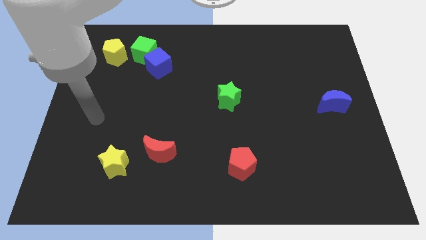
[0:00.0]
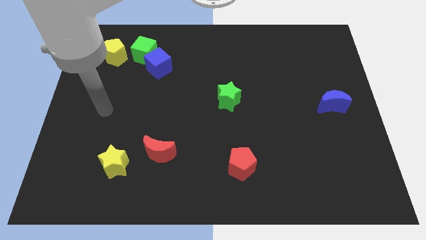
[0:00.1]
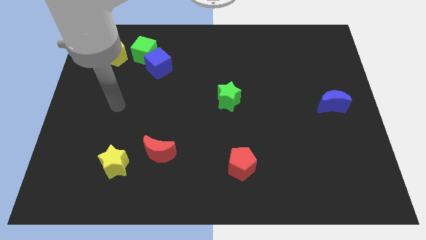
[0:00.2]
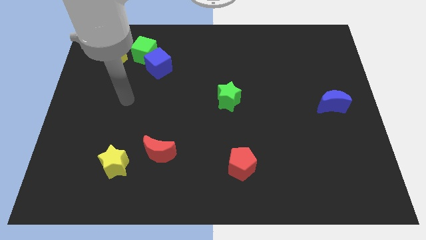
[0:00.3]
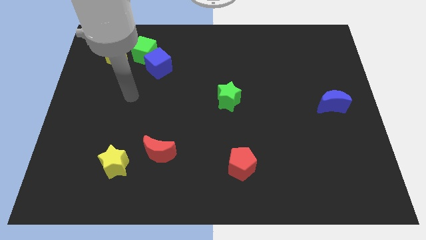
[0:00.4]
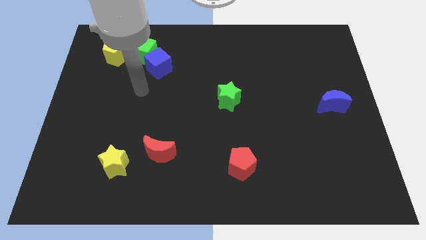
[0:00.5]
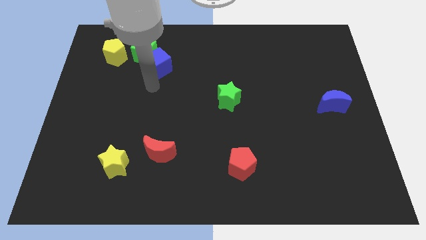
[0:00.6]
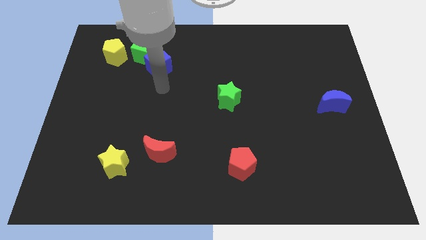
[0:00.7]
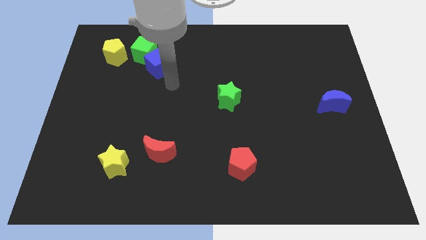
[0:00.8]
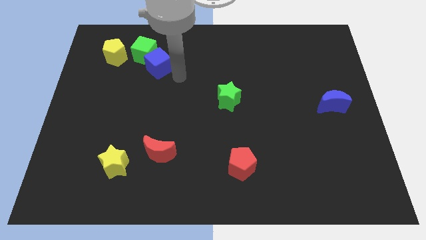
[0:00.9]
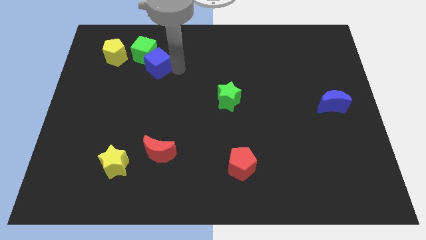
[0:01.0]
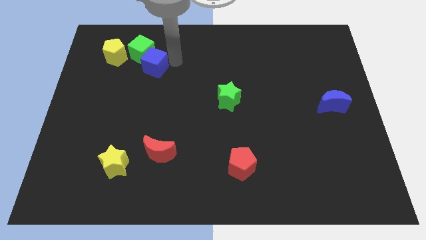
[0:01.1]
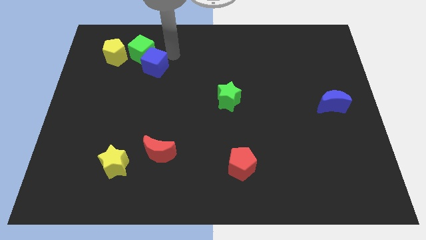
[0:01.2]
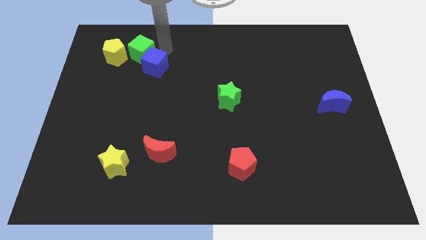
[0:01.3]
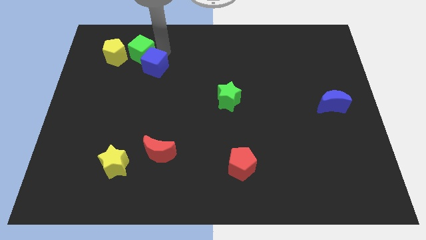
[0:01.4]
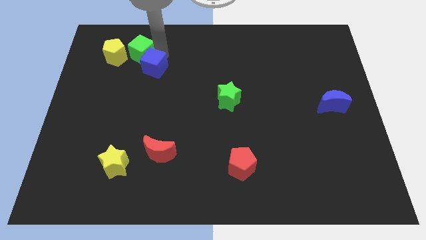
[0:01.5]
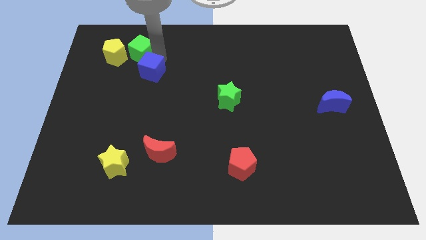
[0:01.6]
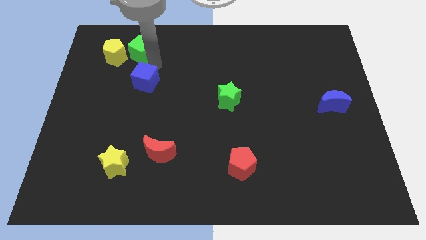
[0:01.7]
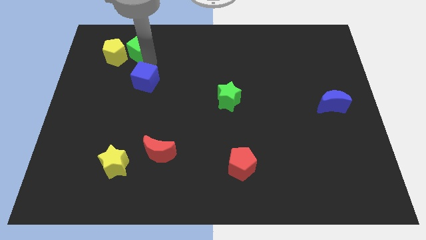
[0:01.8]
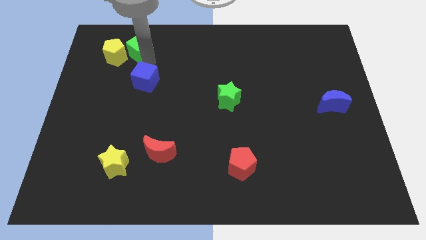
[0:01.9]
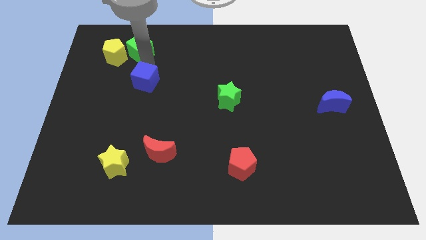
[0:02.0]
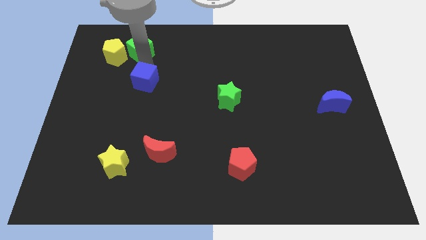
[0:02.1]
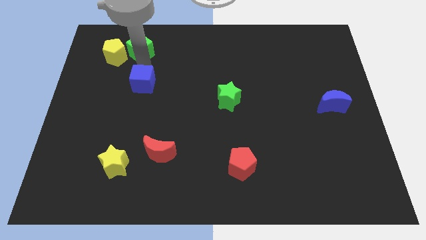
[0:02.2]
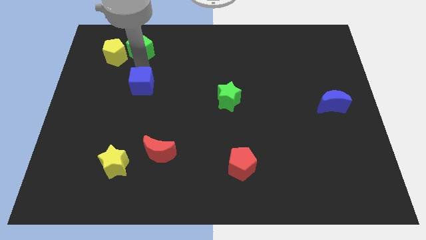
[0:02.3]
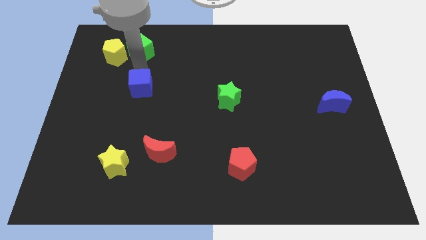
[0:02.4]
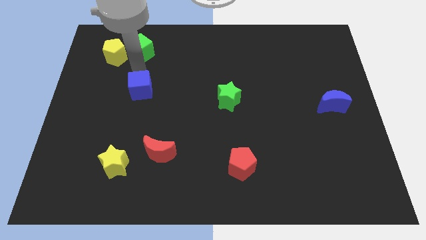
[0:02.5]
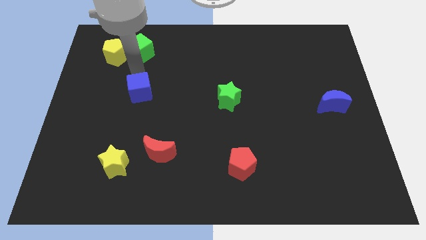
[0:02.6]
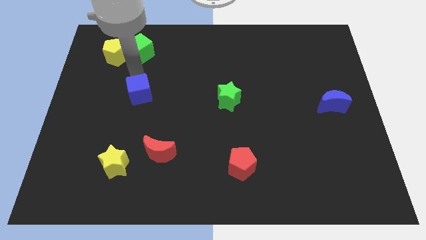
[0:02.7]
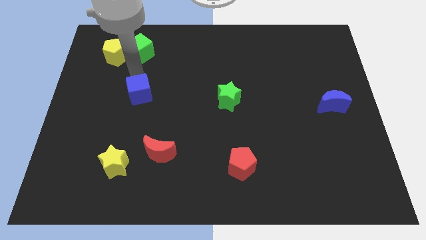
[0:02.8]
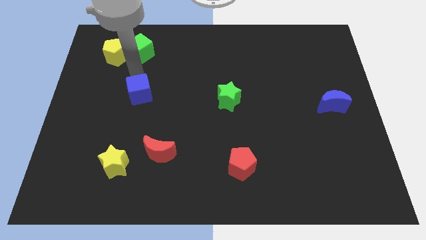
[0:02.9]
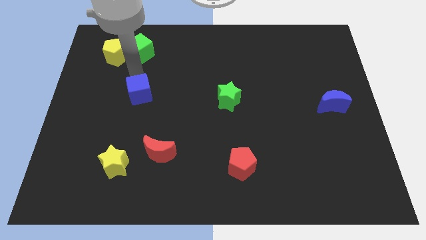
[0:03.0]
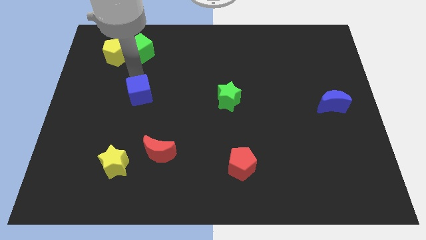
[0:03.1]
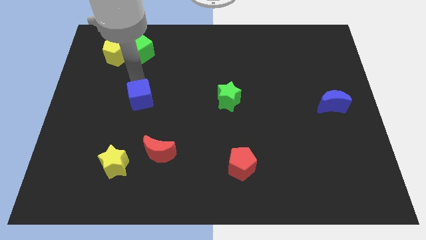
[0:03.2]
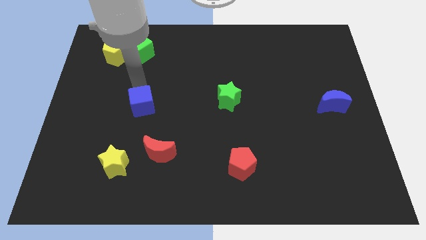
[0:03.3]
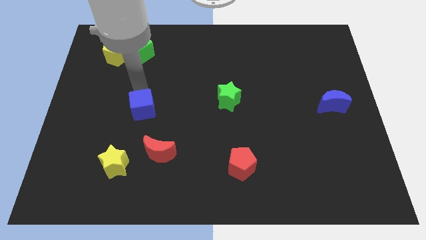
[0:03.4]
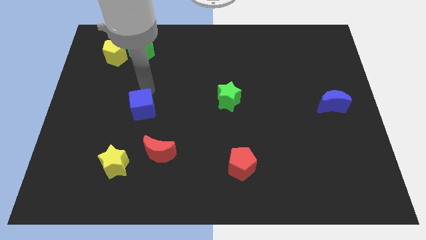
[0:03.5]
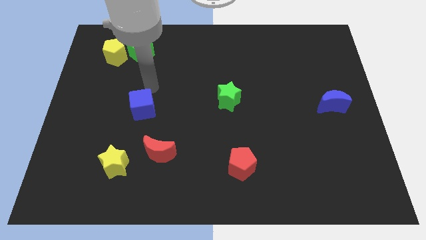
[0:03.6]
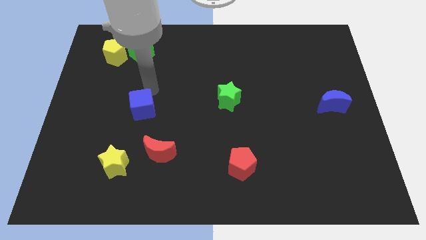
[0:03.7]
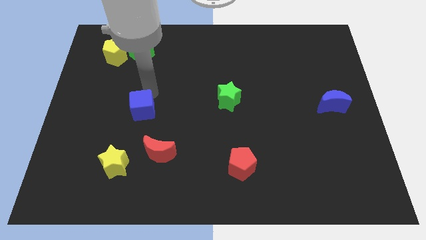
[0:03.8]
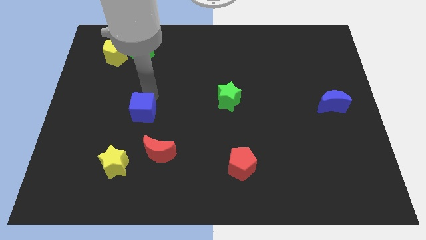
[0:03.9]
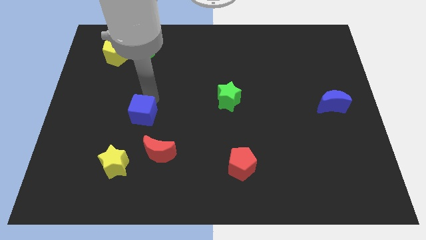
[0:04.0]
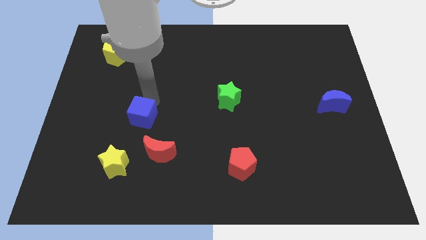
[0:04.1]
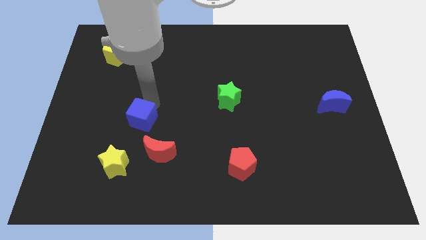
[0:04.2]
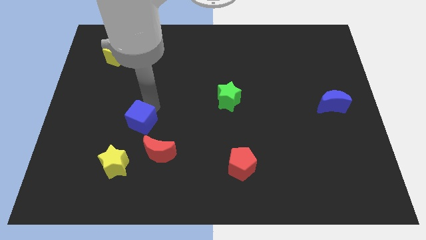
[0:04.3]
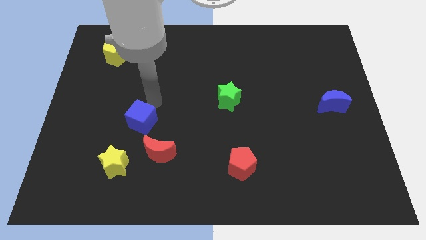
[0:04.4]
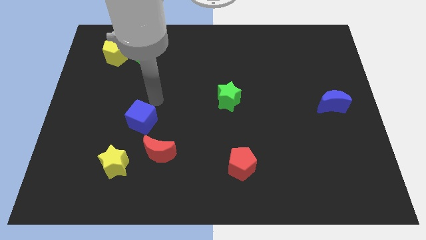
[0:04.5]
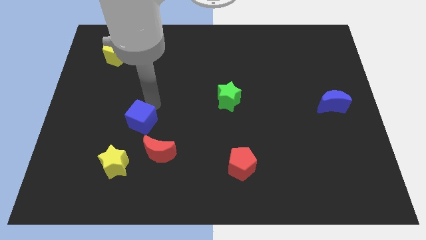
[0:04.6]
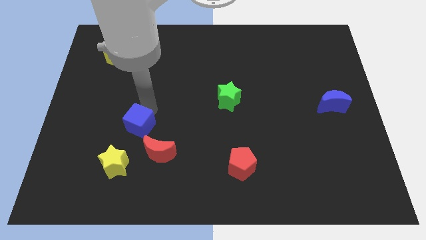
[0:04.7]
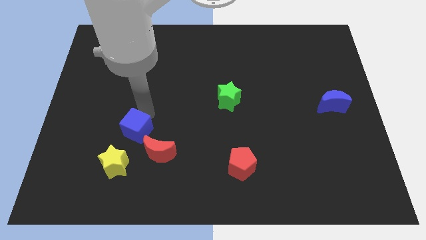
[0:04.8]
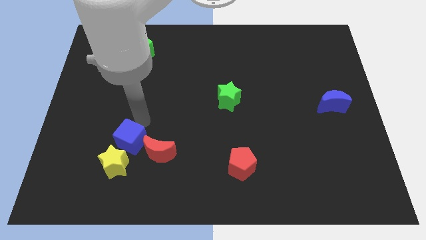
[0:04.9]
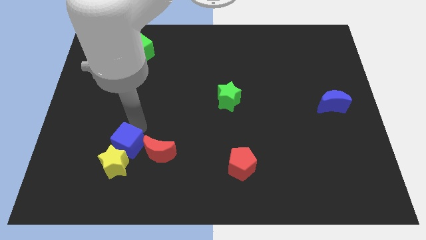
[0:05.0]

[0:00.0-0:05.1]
move the blue cube towards the yellow star

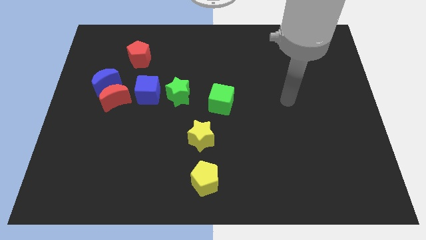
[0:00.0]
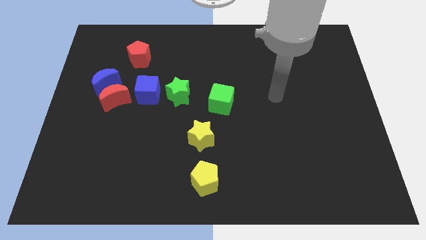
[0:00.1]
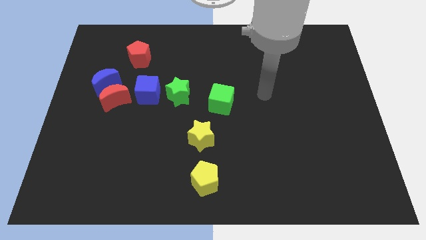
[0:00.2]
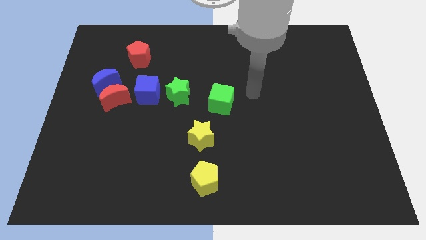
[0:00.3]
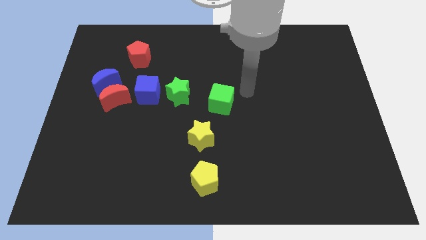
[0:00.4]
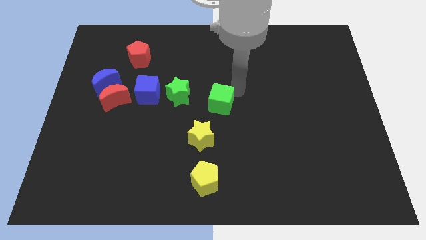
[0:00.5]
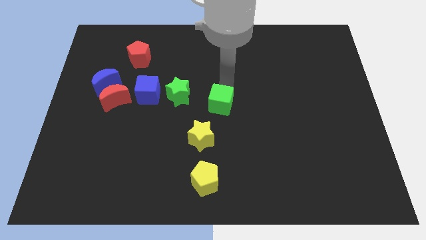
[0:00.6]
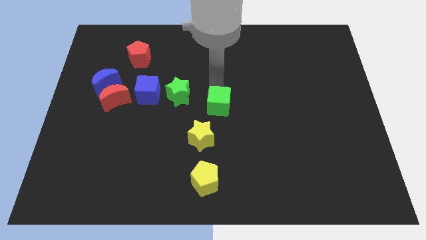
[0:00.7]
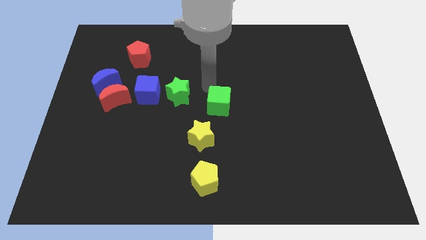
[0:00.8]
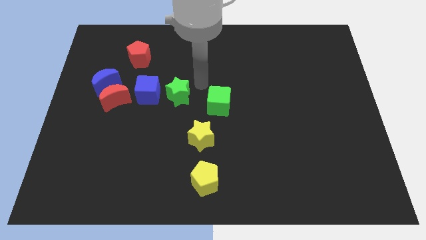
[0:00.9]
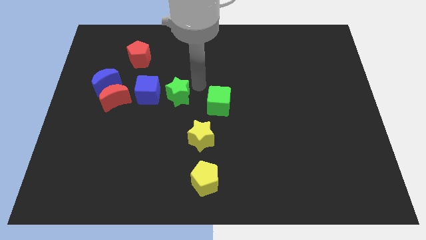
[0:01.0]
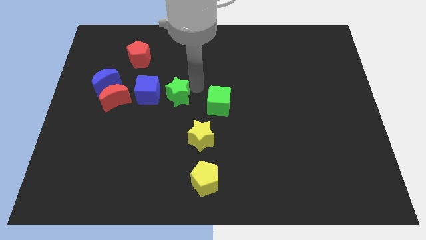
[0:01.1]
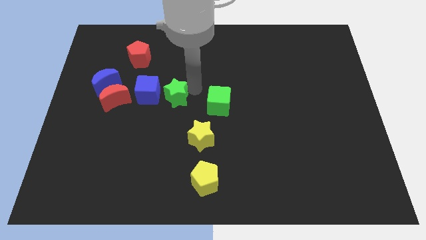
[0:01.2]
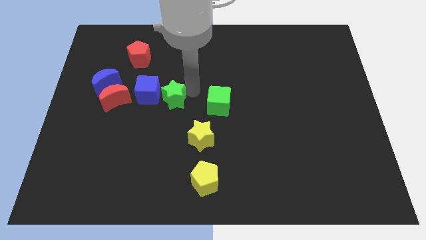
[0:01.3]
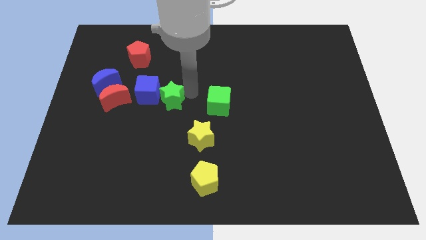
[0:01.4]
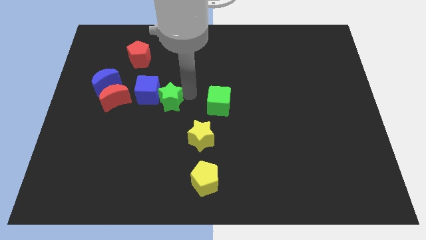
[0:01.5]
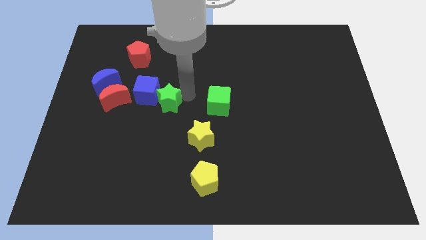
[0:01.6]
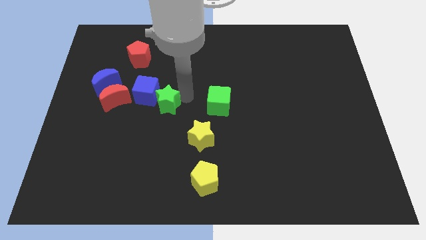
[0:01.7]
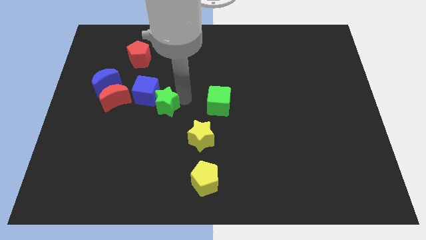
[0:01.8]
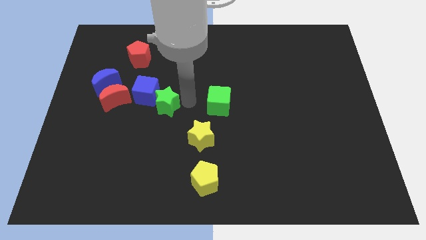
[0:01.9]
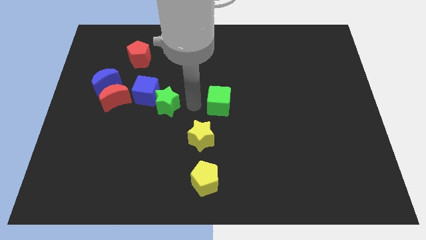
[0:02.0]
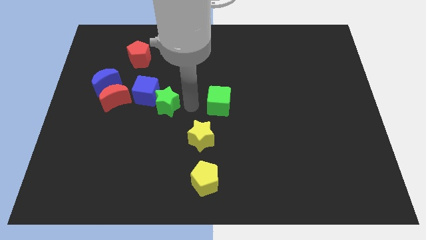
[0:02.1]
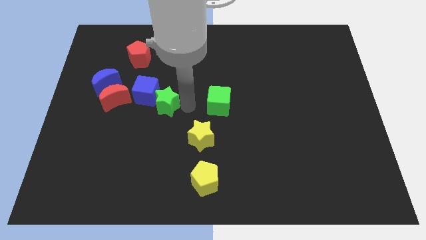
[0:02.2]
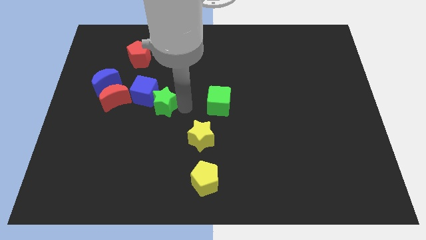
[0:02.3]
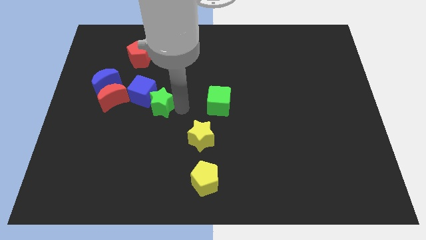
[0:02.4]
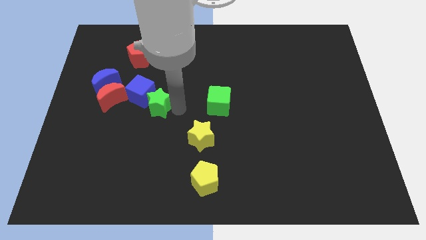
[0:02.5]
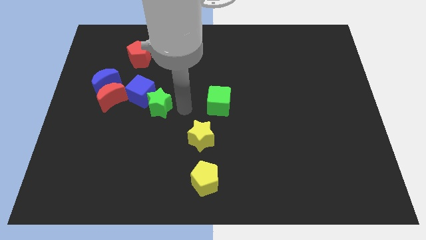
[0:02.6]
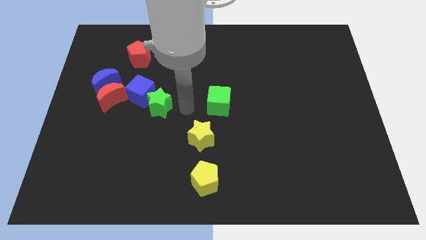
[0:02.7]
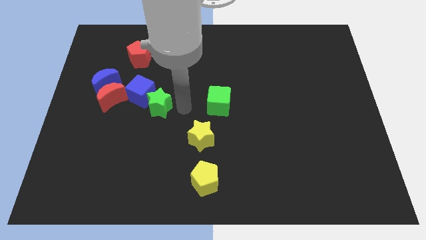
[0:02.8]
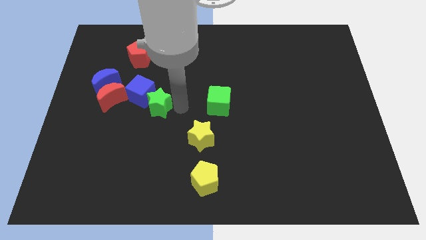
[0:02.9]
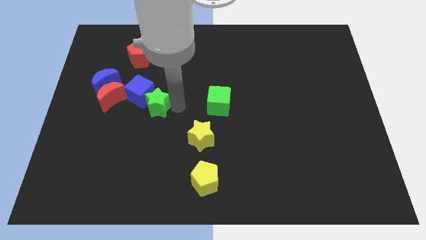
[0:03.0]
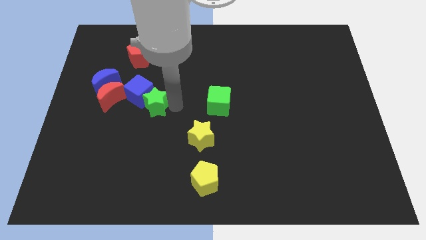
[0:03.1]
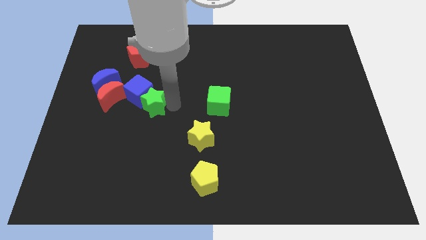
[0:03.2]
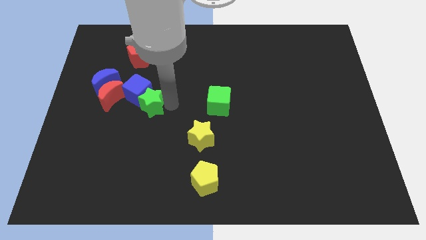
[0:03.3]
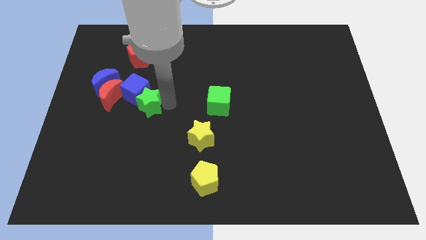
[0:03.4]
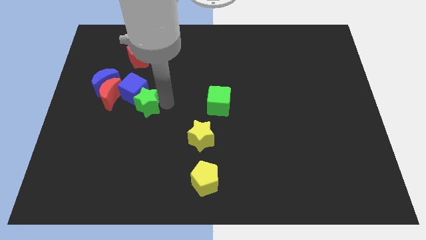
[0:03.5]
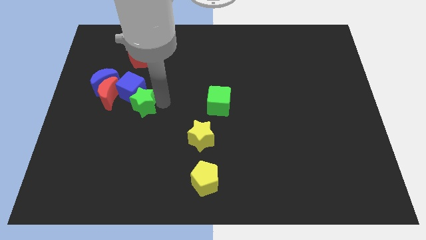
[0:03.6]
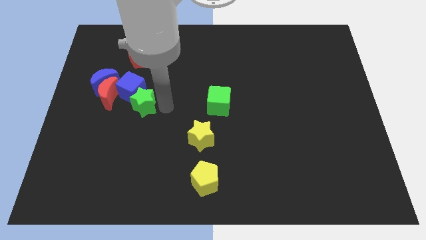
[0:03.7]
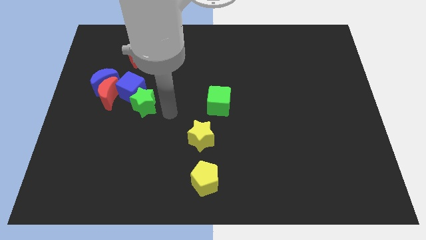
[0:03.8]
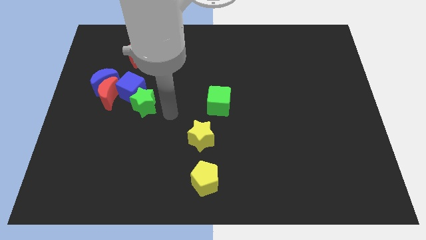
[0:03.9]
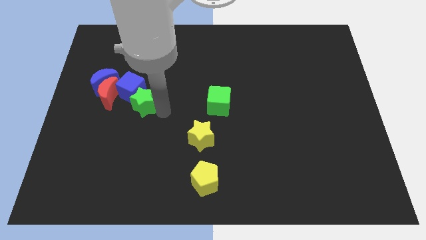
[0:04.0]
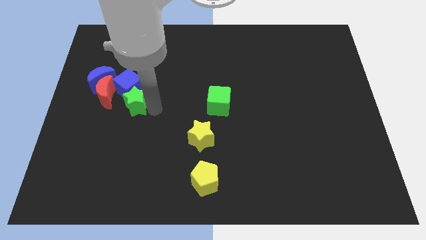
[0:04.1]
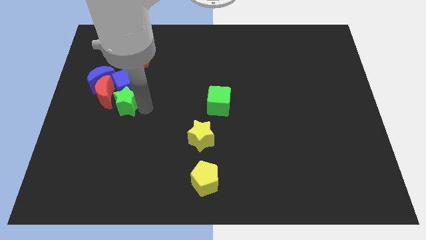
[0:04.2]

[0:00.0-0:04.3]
slide the green star towards the red moon
